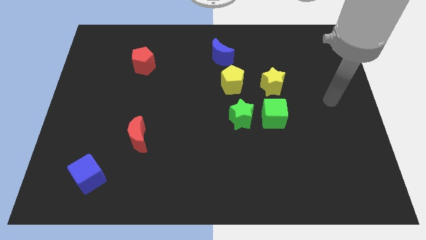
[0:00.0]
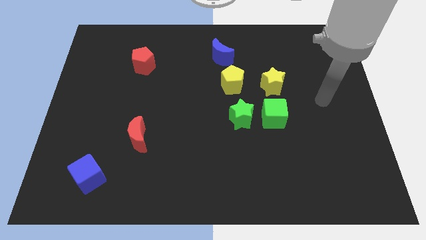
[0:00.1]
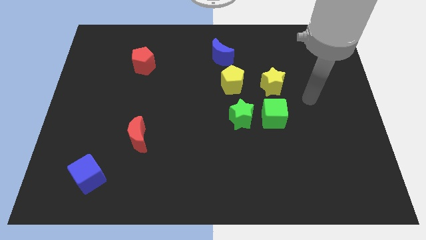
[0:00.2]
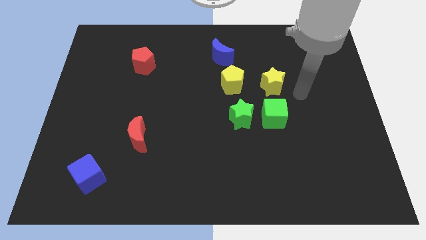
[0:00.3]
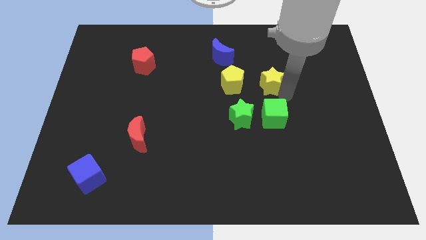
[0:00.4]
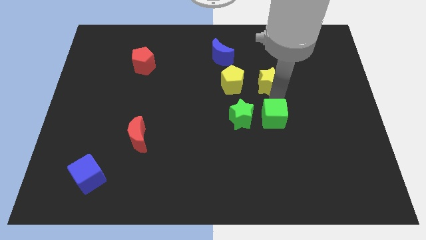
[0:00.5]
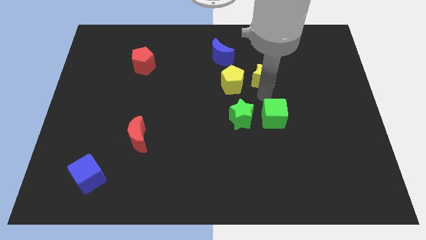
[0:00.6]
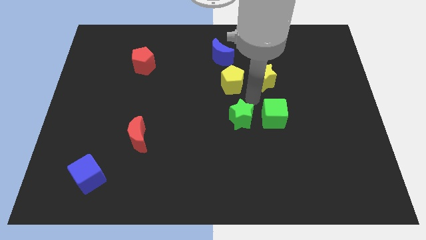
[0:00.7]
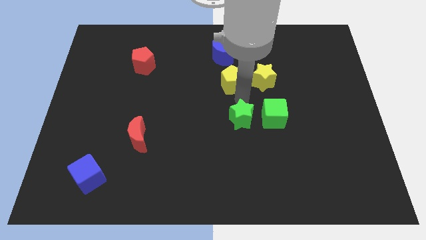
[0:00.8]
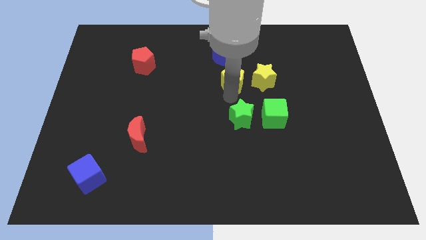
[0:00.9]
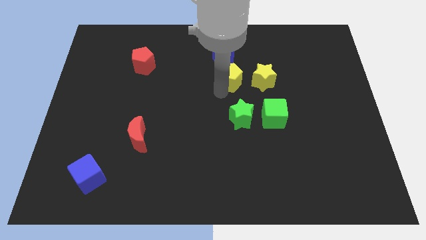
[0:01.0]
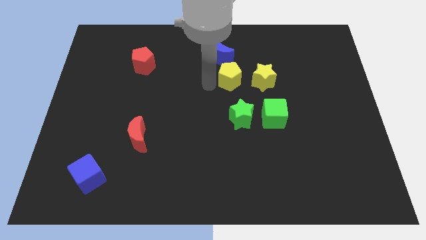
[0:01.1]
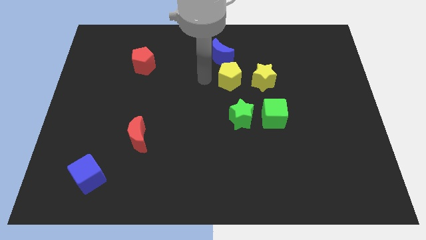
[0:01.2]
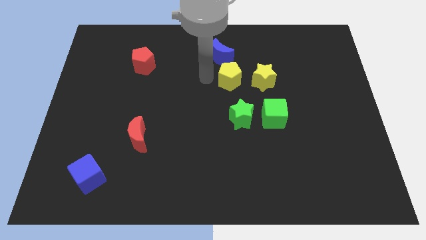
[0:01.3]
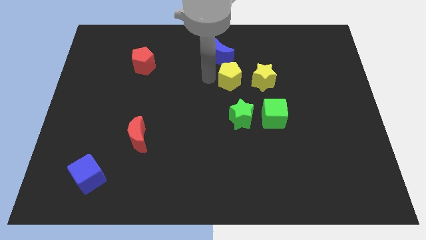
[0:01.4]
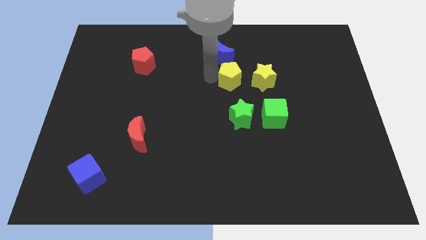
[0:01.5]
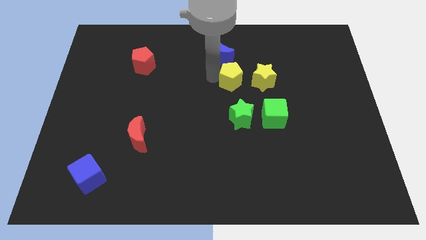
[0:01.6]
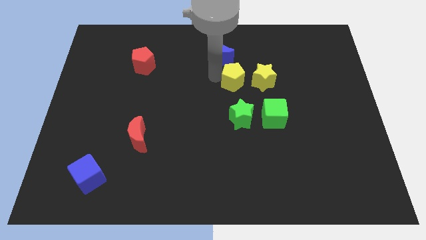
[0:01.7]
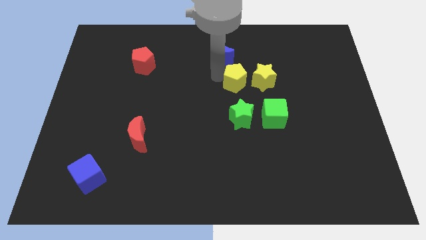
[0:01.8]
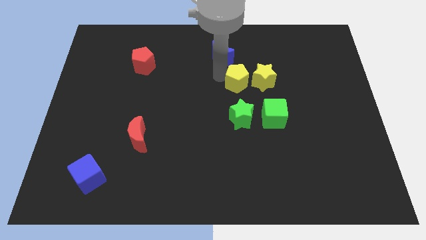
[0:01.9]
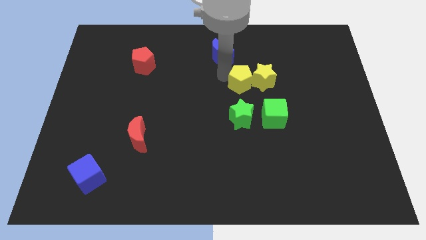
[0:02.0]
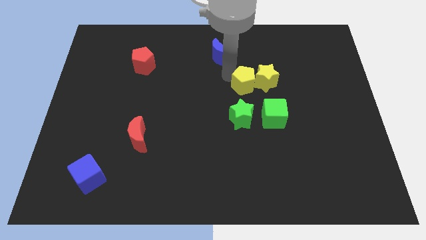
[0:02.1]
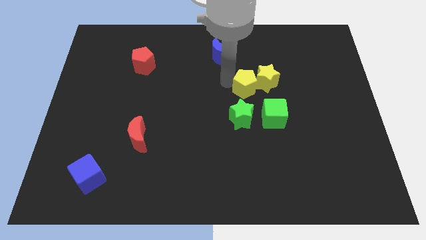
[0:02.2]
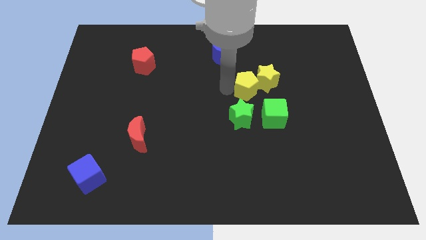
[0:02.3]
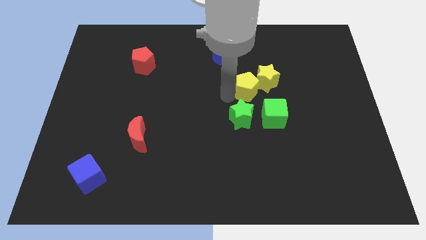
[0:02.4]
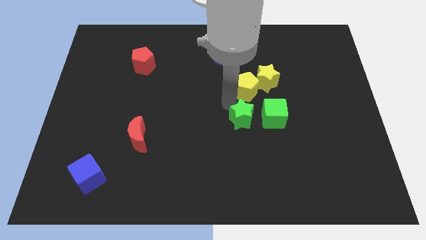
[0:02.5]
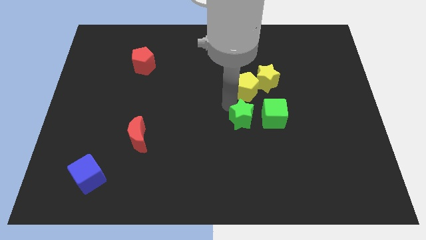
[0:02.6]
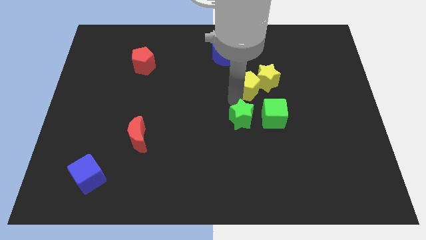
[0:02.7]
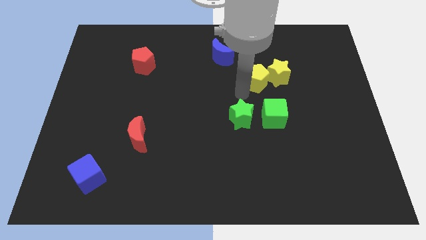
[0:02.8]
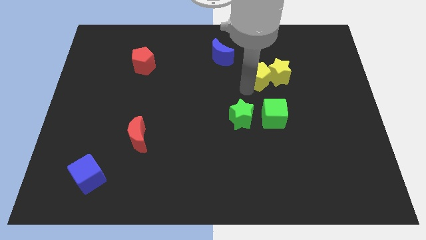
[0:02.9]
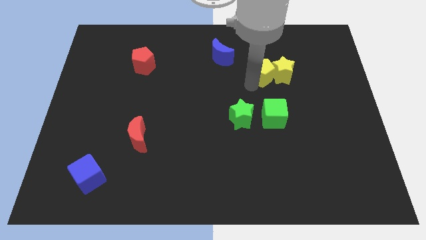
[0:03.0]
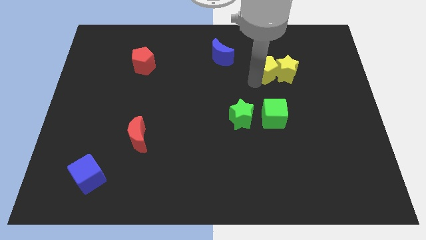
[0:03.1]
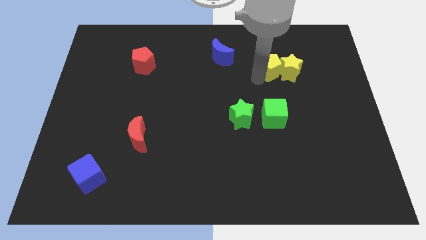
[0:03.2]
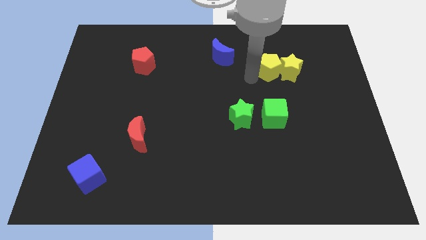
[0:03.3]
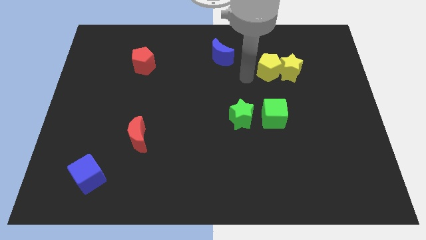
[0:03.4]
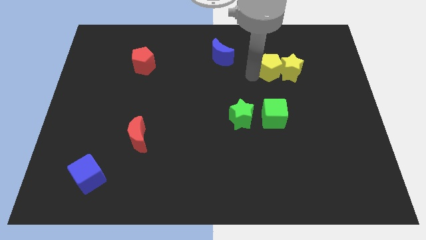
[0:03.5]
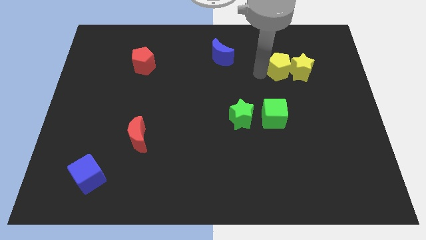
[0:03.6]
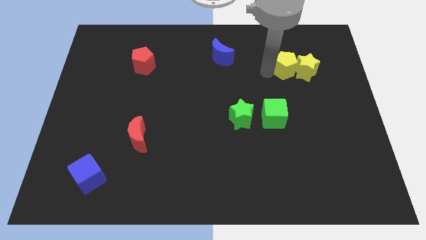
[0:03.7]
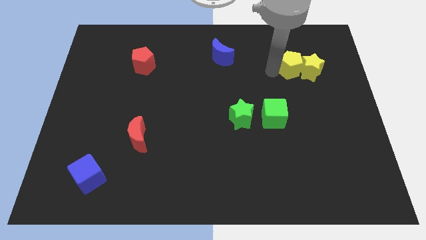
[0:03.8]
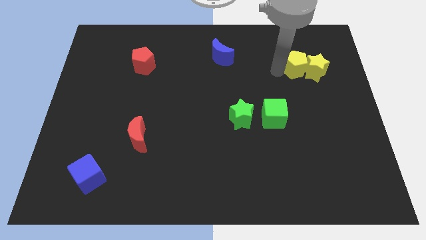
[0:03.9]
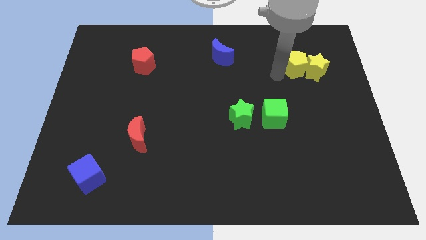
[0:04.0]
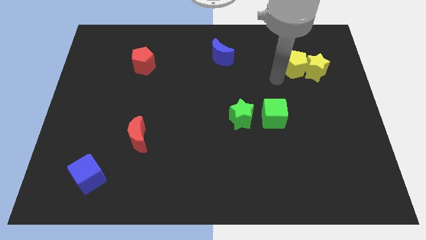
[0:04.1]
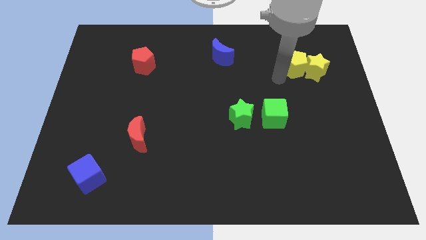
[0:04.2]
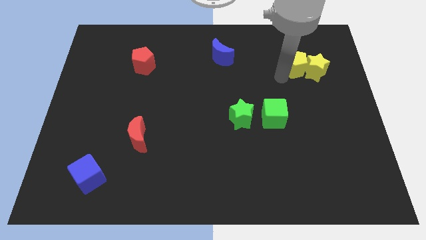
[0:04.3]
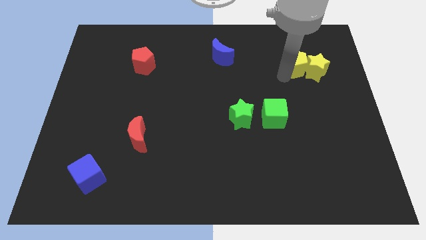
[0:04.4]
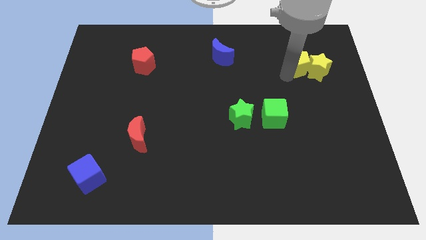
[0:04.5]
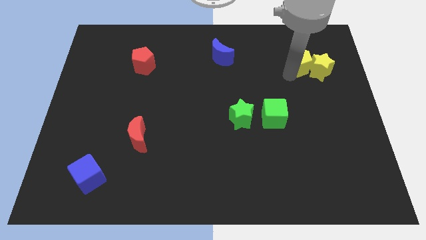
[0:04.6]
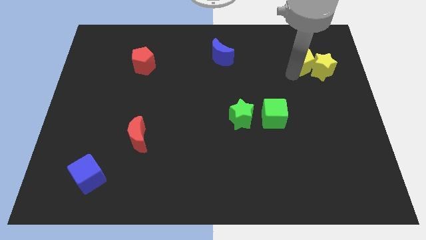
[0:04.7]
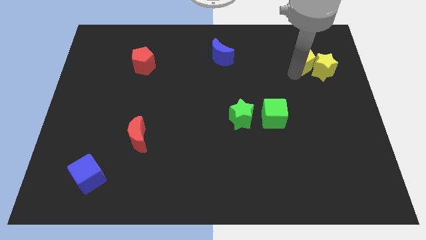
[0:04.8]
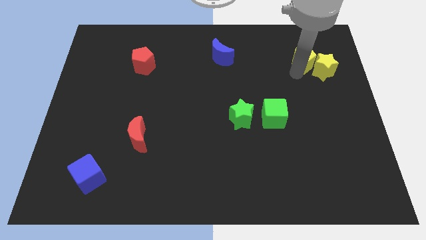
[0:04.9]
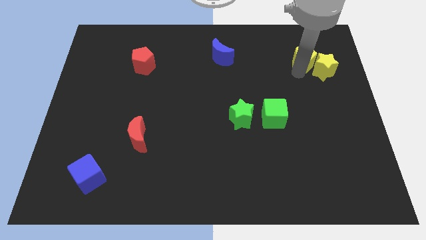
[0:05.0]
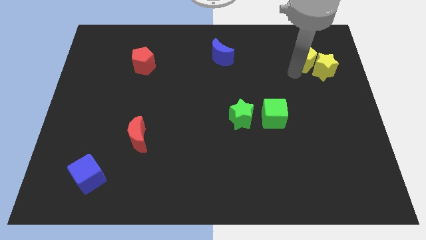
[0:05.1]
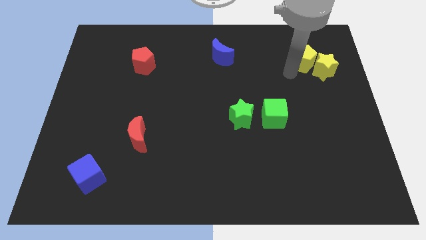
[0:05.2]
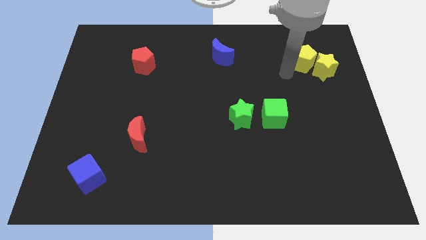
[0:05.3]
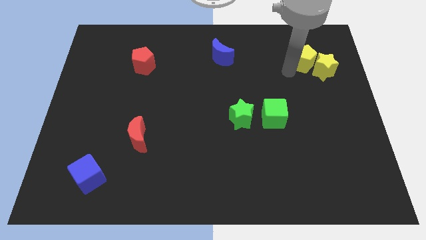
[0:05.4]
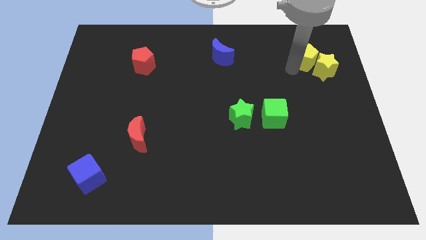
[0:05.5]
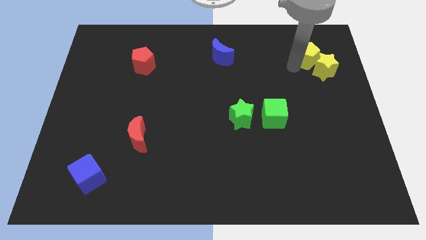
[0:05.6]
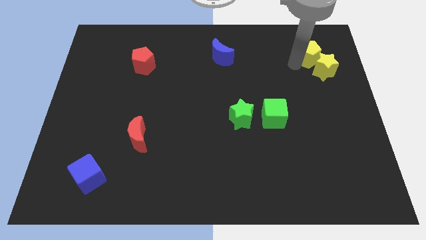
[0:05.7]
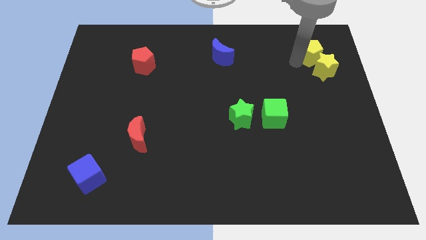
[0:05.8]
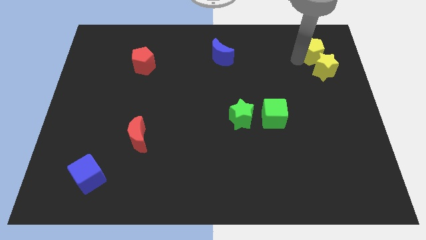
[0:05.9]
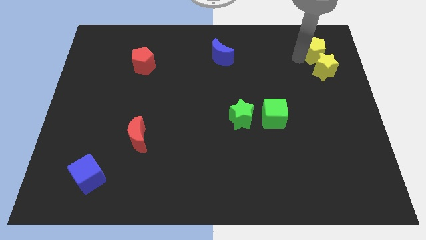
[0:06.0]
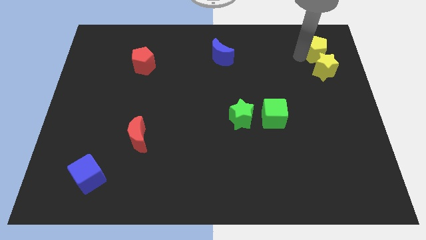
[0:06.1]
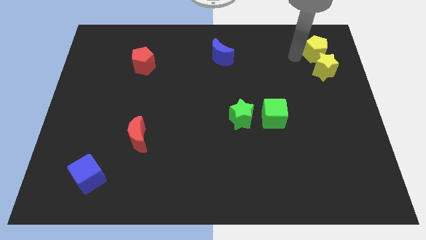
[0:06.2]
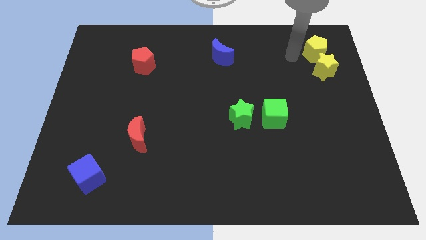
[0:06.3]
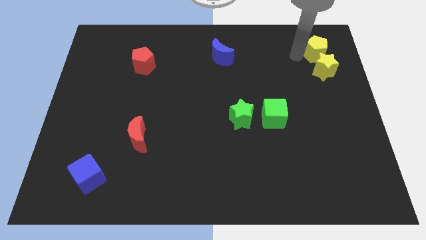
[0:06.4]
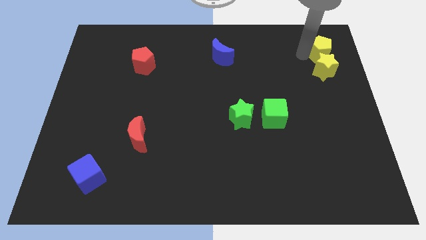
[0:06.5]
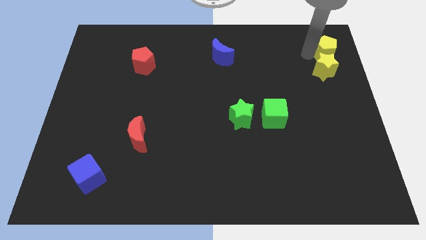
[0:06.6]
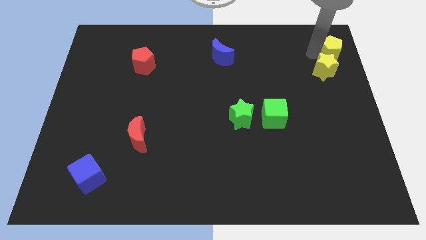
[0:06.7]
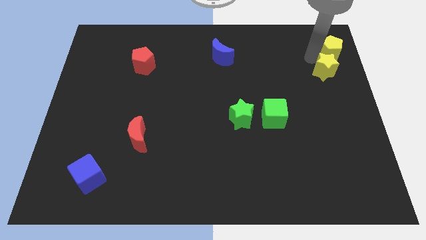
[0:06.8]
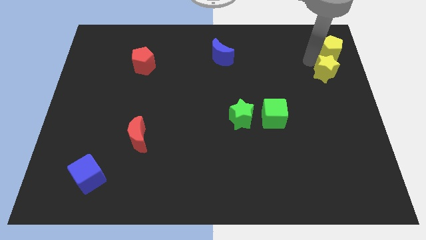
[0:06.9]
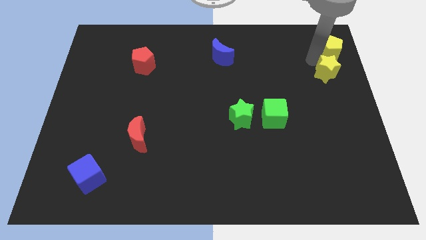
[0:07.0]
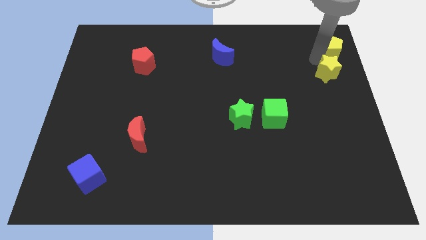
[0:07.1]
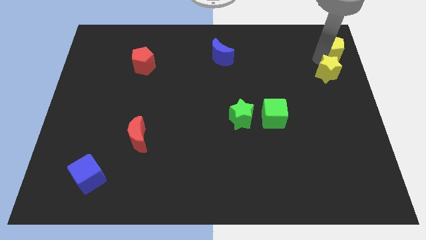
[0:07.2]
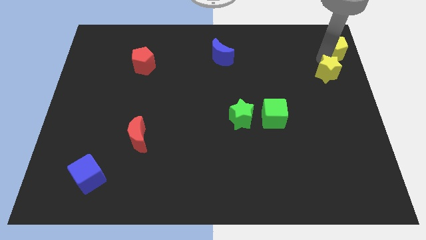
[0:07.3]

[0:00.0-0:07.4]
put the yellow pentagon to the top right of the board
